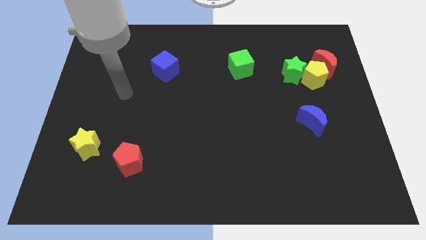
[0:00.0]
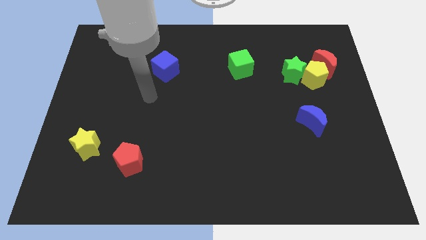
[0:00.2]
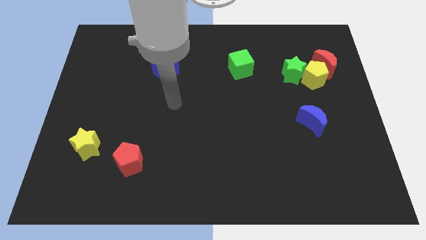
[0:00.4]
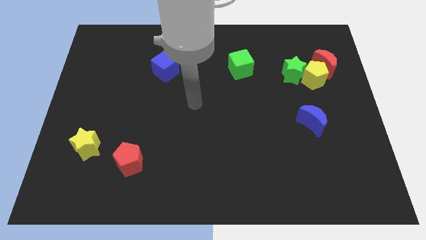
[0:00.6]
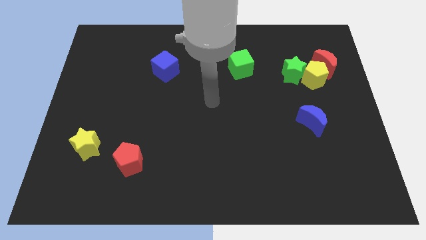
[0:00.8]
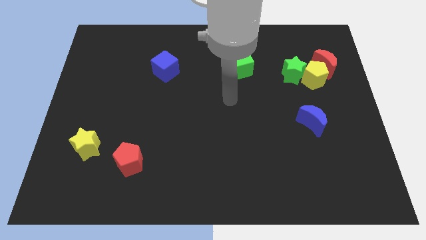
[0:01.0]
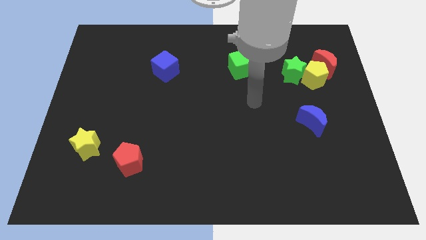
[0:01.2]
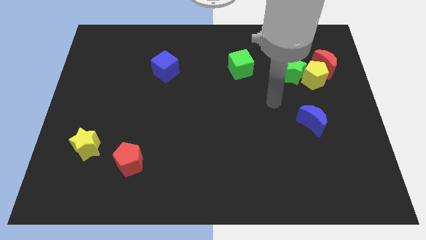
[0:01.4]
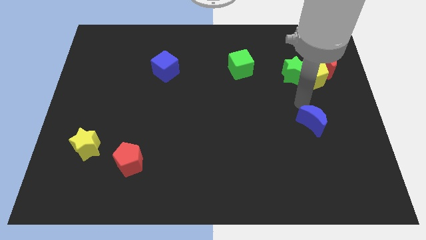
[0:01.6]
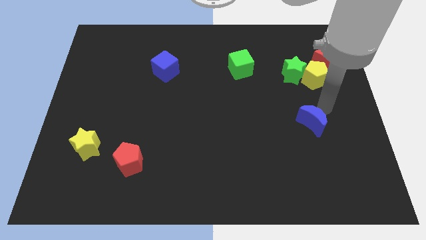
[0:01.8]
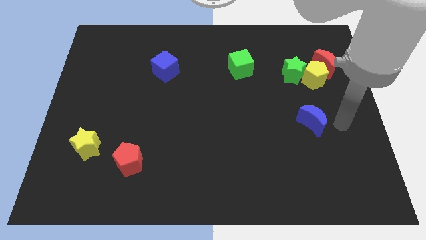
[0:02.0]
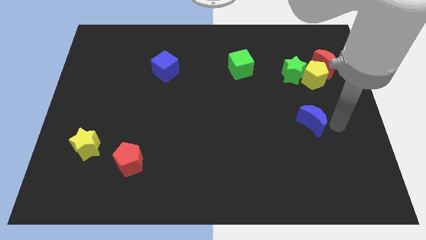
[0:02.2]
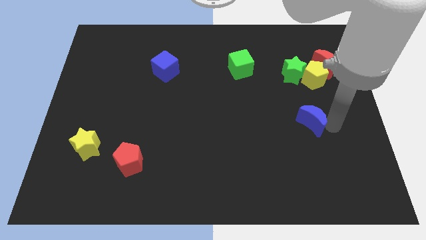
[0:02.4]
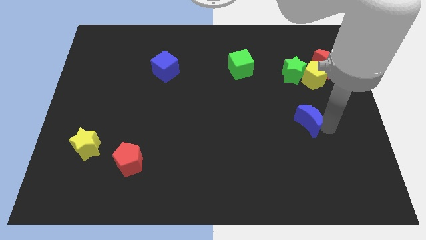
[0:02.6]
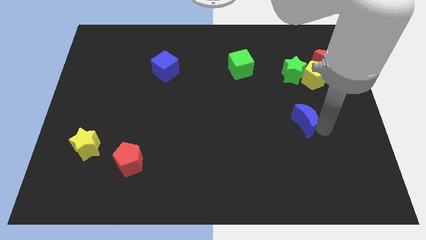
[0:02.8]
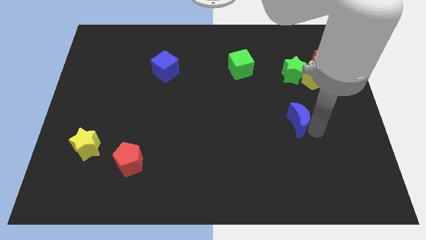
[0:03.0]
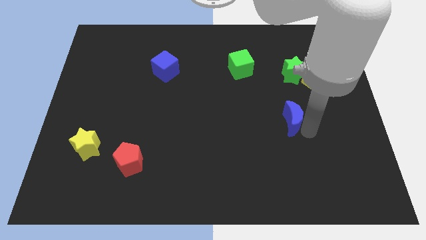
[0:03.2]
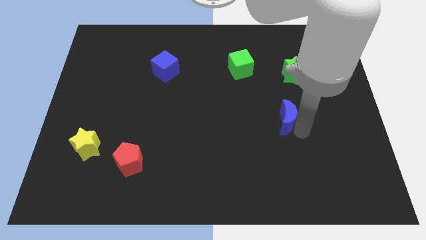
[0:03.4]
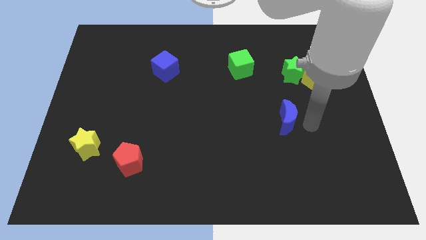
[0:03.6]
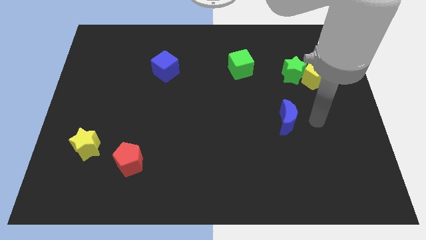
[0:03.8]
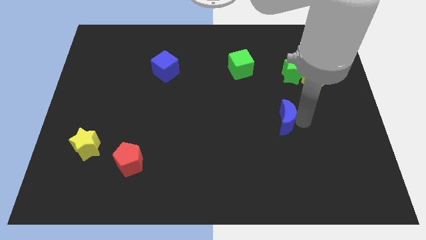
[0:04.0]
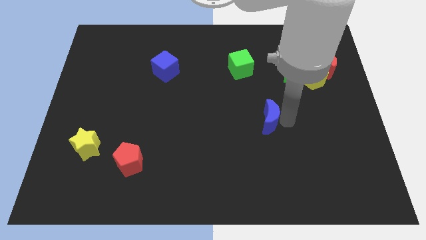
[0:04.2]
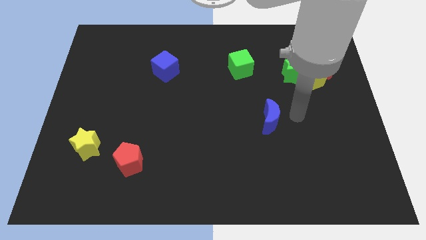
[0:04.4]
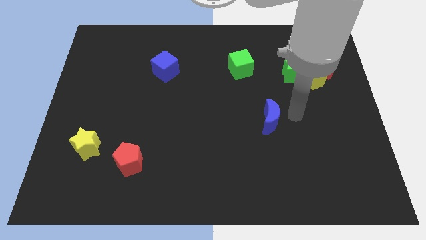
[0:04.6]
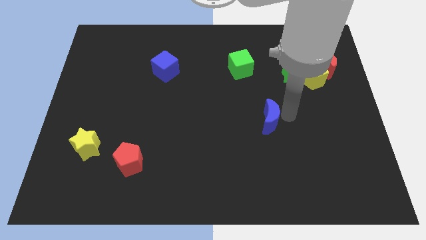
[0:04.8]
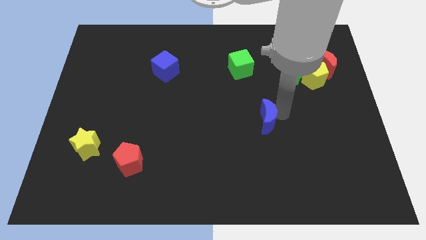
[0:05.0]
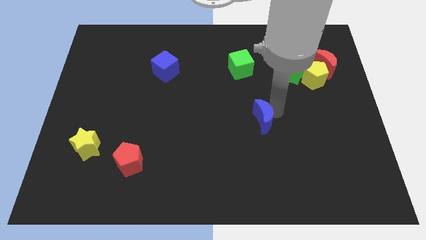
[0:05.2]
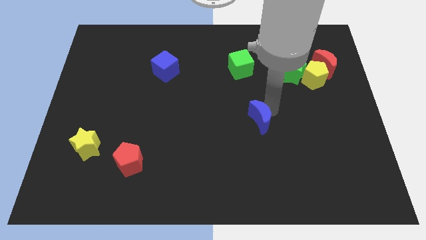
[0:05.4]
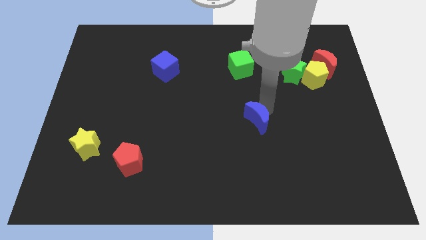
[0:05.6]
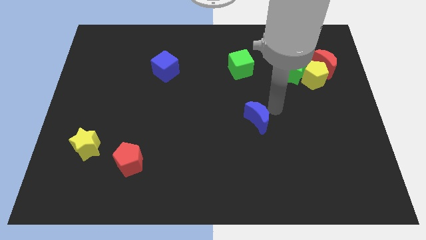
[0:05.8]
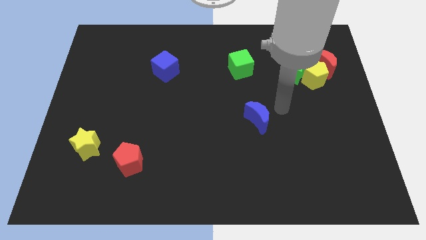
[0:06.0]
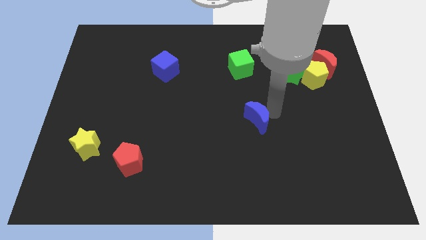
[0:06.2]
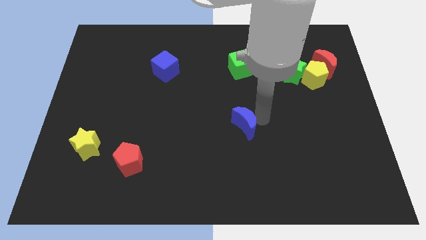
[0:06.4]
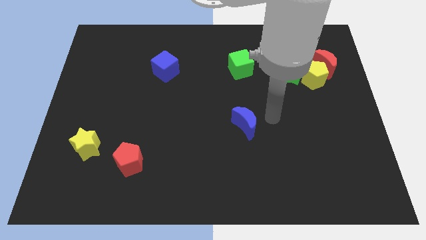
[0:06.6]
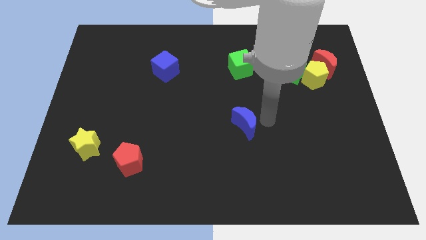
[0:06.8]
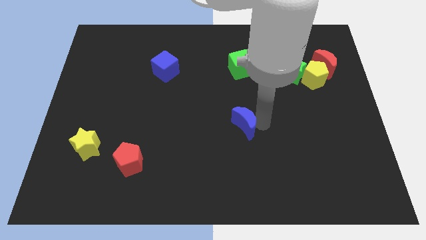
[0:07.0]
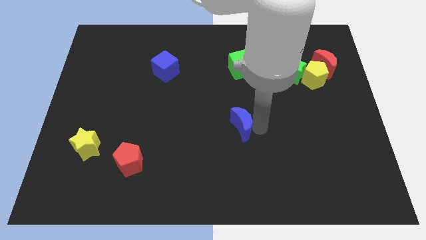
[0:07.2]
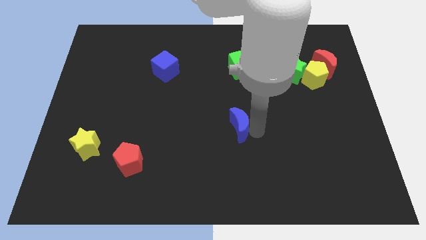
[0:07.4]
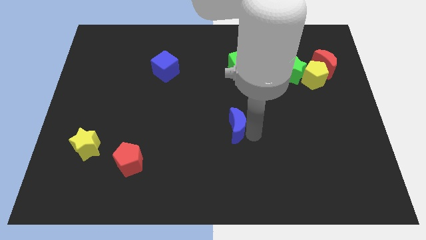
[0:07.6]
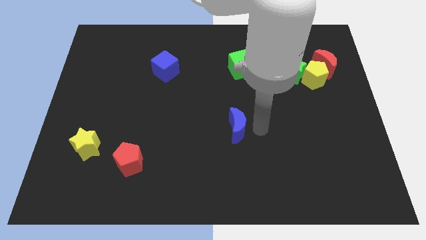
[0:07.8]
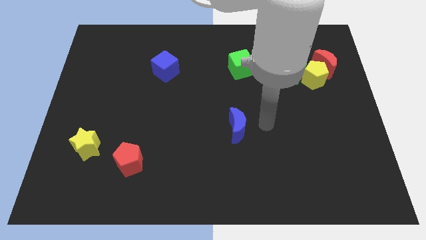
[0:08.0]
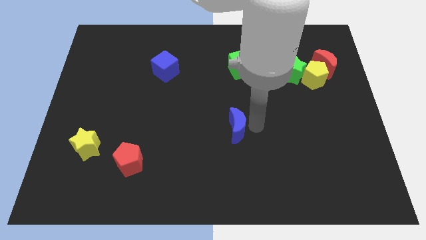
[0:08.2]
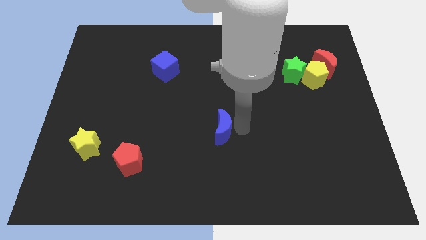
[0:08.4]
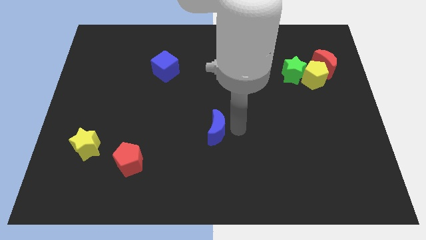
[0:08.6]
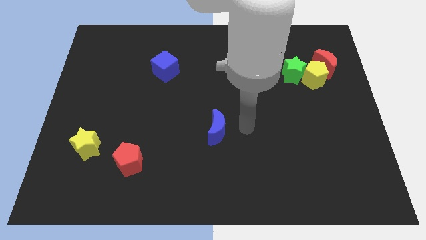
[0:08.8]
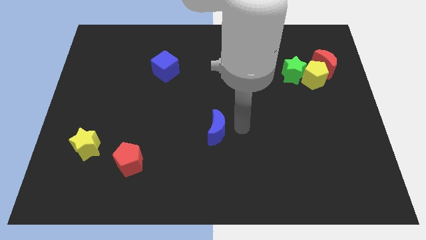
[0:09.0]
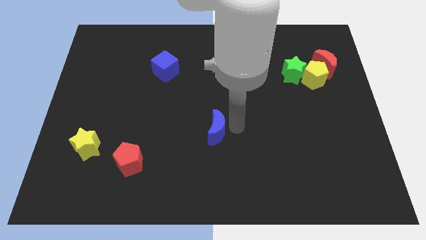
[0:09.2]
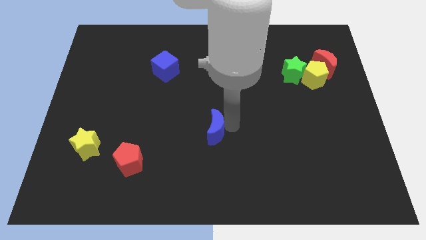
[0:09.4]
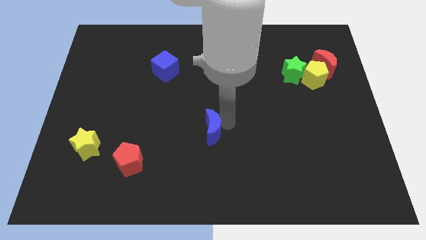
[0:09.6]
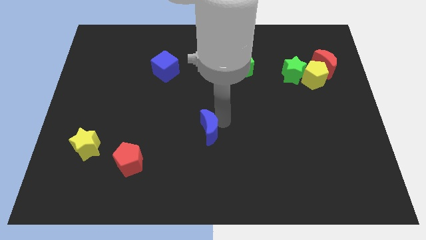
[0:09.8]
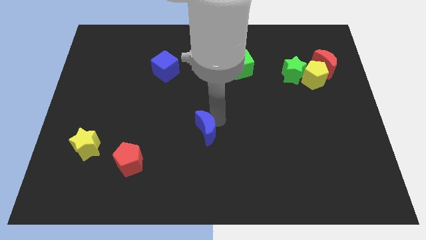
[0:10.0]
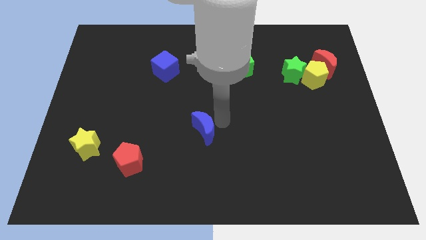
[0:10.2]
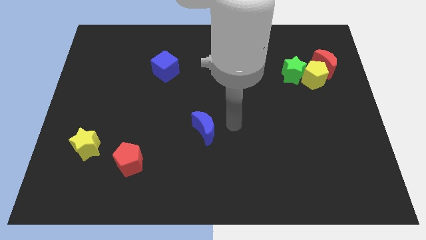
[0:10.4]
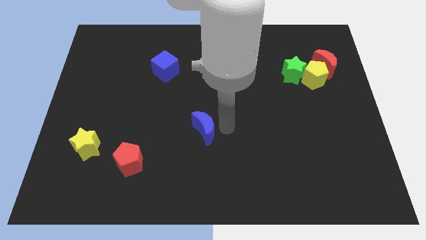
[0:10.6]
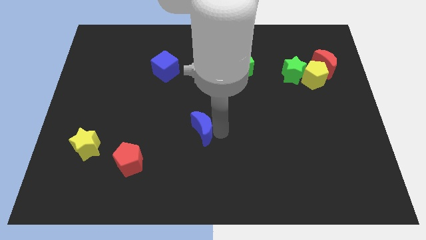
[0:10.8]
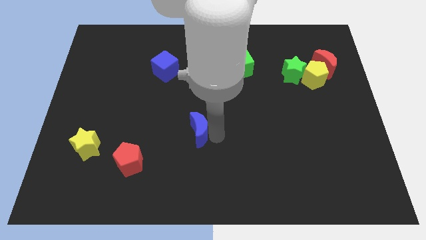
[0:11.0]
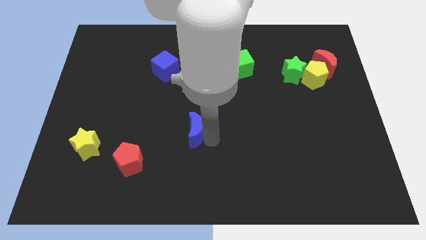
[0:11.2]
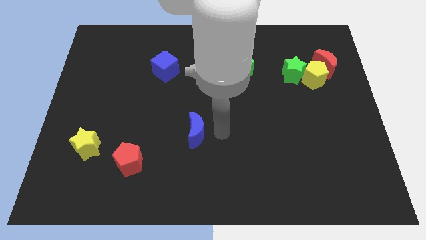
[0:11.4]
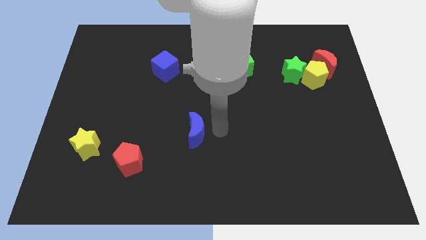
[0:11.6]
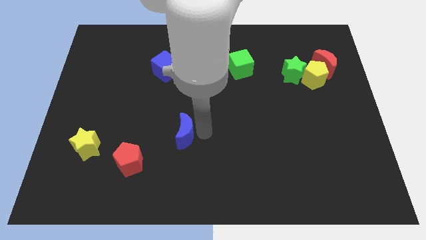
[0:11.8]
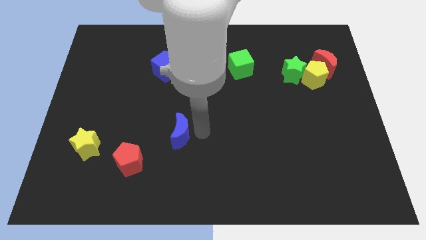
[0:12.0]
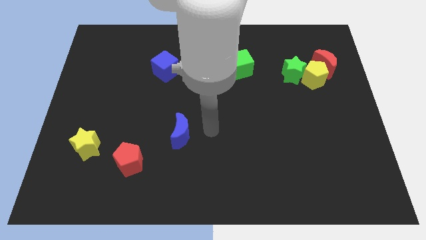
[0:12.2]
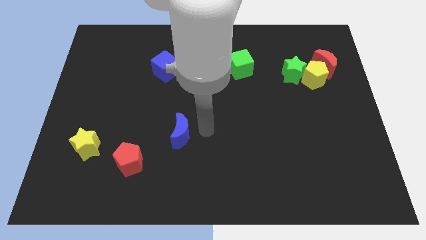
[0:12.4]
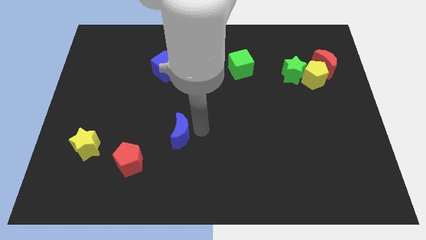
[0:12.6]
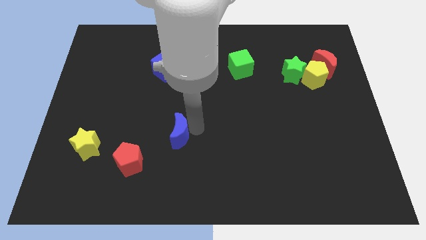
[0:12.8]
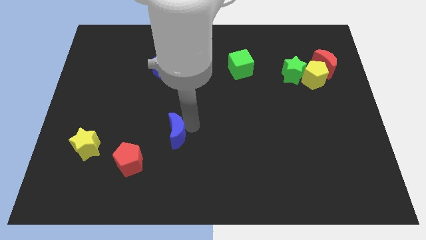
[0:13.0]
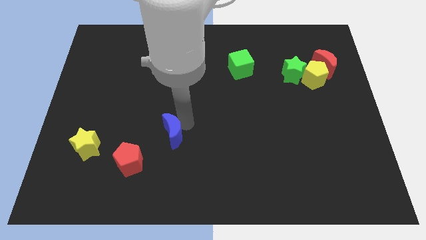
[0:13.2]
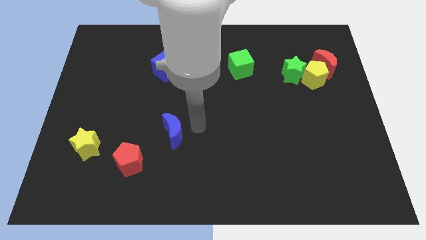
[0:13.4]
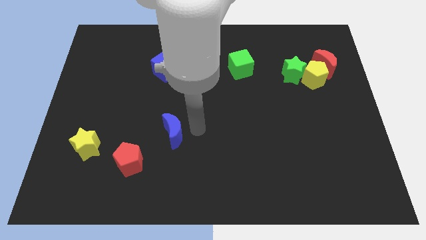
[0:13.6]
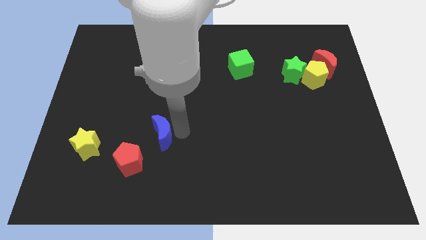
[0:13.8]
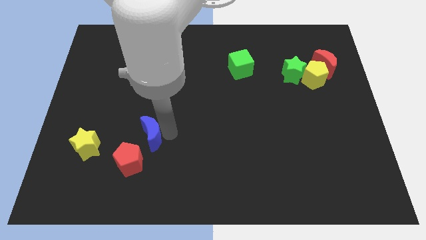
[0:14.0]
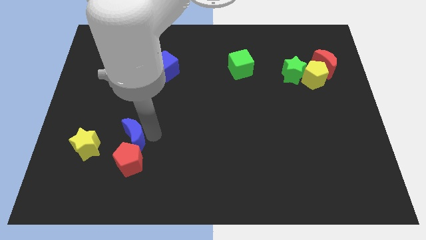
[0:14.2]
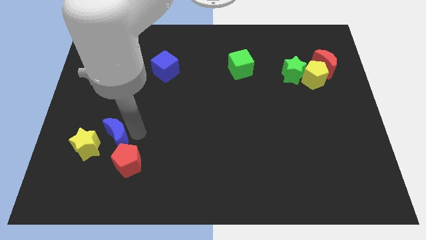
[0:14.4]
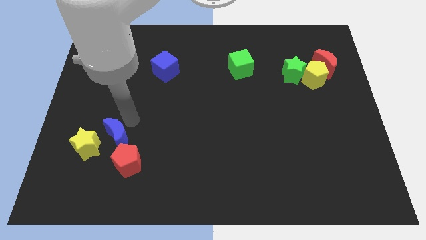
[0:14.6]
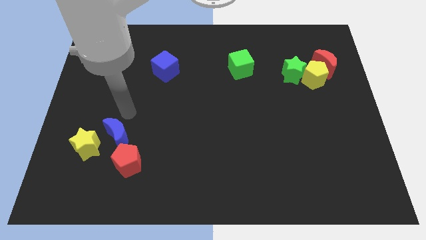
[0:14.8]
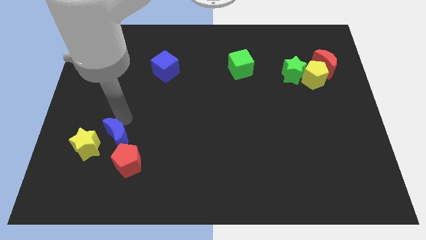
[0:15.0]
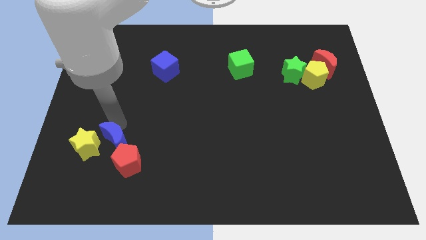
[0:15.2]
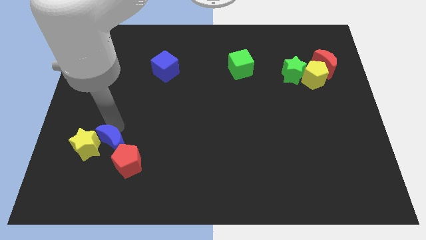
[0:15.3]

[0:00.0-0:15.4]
push the blue moon to the bottom right side of the yellow star
